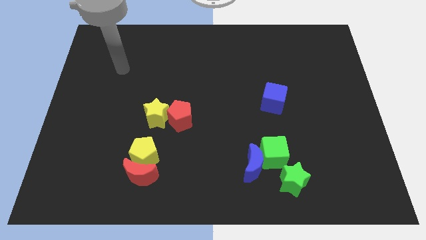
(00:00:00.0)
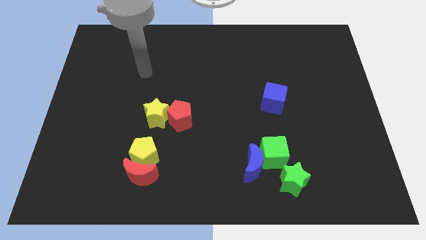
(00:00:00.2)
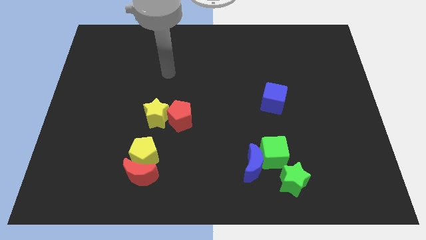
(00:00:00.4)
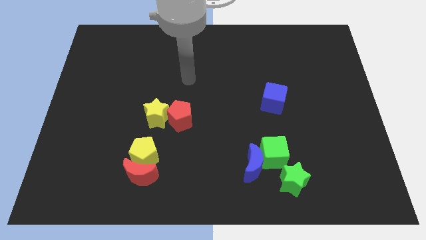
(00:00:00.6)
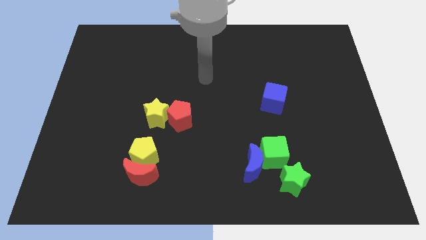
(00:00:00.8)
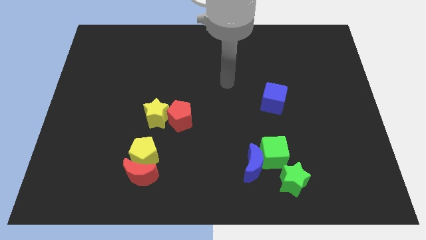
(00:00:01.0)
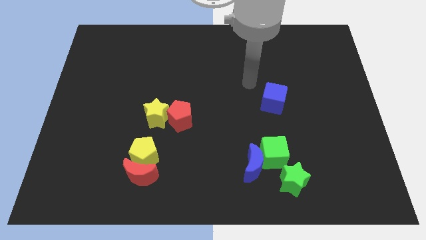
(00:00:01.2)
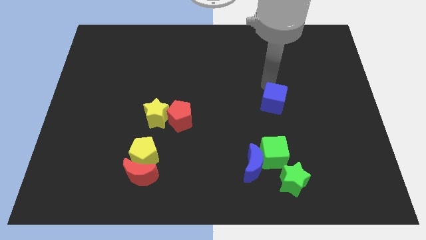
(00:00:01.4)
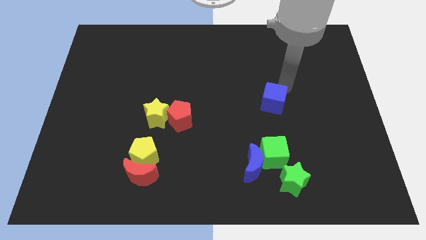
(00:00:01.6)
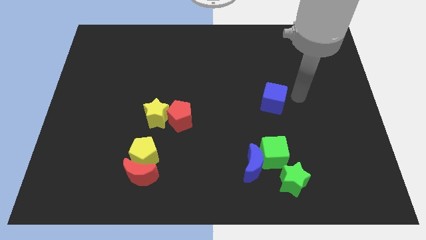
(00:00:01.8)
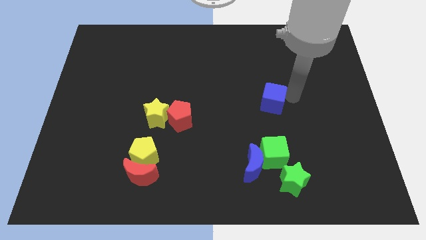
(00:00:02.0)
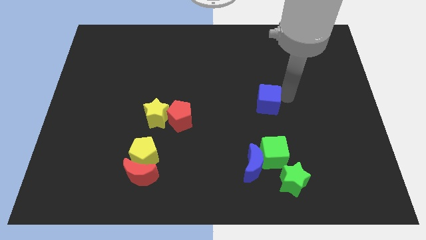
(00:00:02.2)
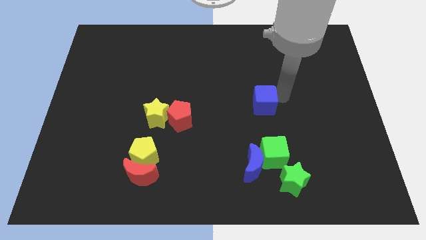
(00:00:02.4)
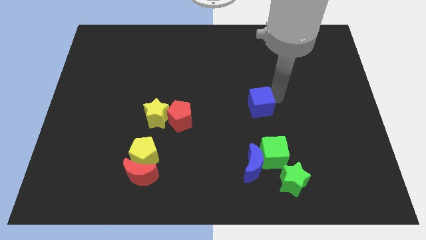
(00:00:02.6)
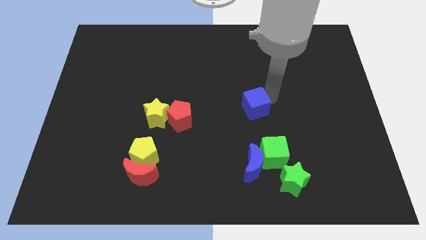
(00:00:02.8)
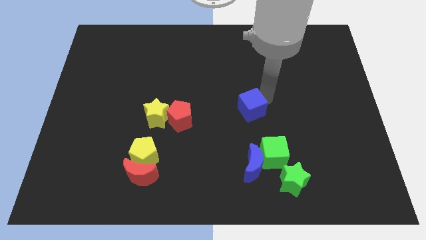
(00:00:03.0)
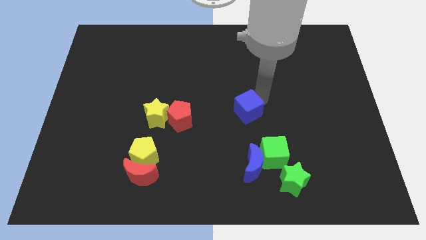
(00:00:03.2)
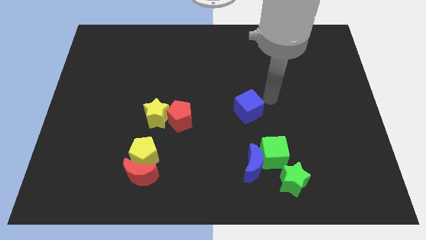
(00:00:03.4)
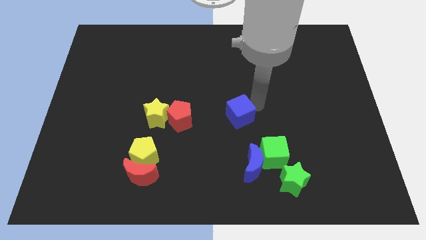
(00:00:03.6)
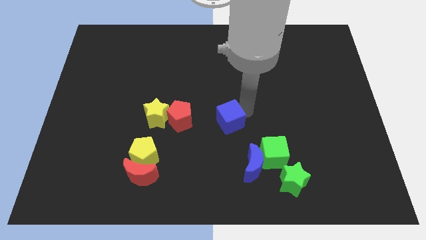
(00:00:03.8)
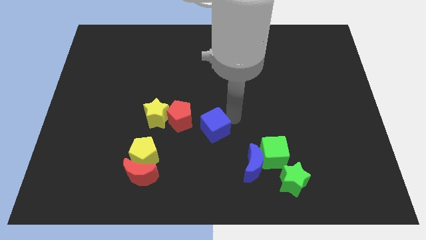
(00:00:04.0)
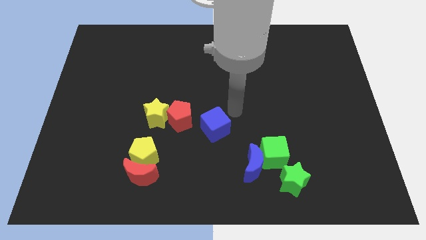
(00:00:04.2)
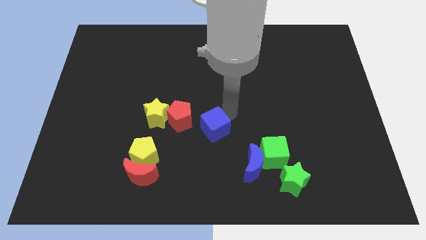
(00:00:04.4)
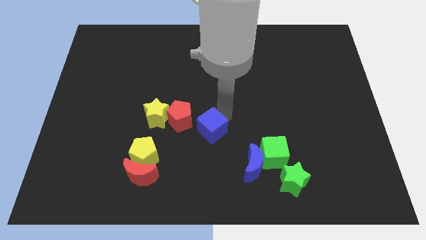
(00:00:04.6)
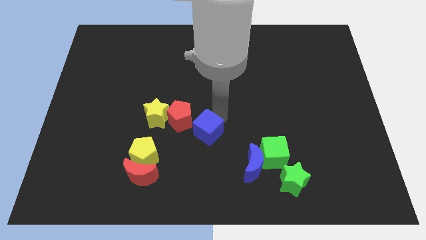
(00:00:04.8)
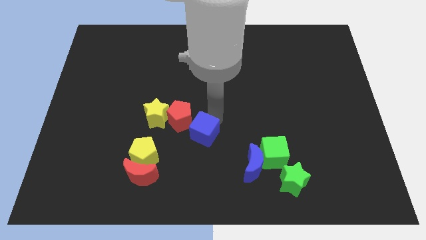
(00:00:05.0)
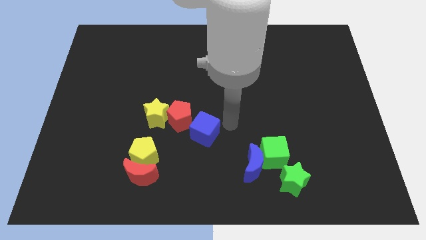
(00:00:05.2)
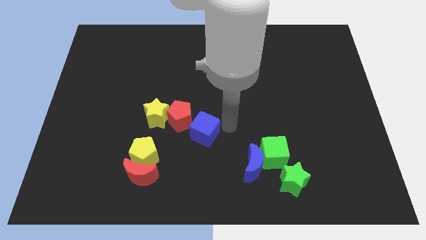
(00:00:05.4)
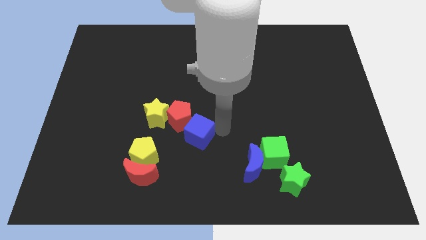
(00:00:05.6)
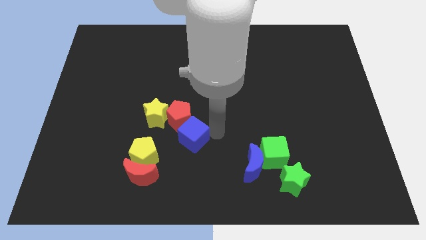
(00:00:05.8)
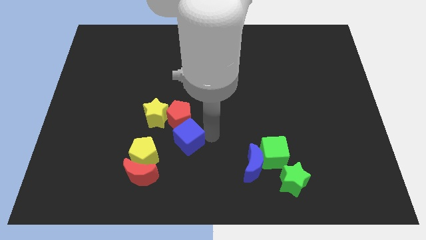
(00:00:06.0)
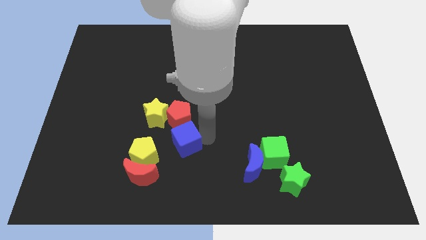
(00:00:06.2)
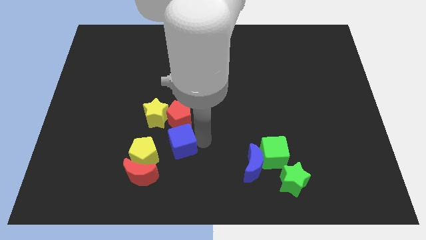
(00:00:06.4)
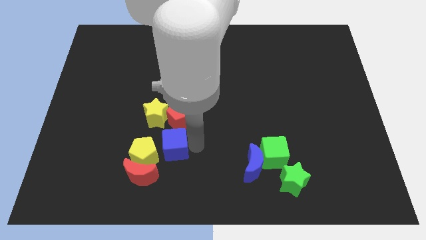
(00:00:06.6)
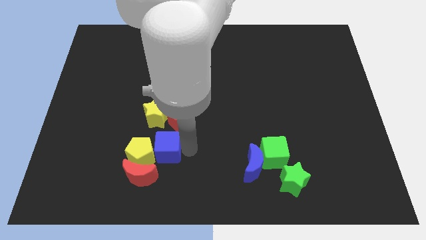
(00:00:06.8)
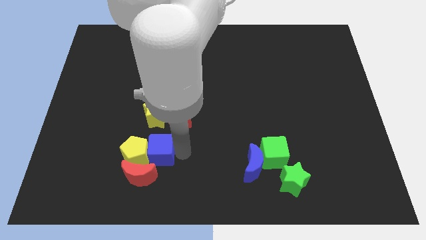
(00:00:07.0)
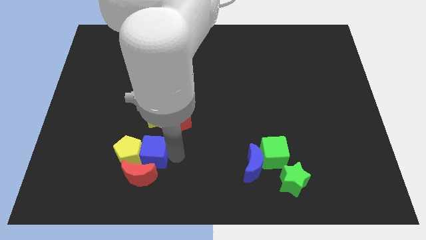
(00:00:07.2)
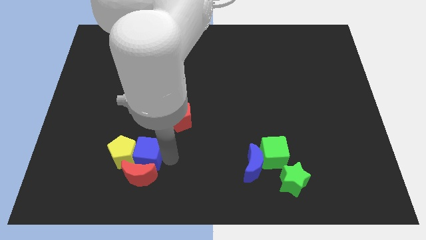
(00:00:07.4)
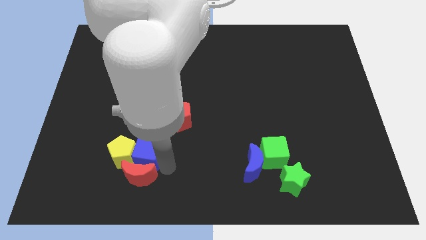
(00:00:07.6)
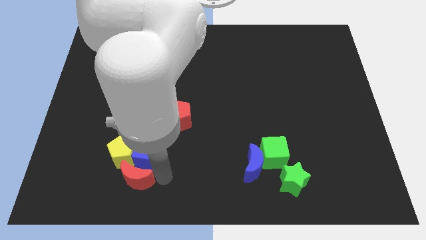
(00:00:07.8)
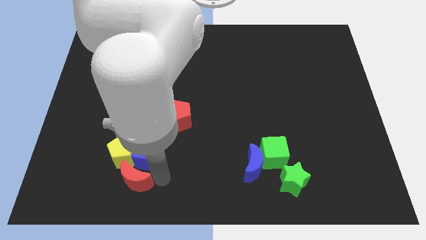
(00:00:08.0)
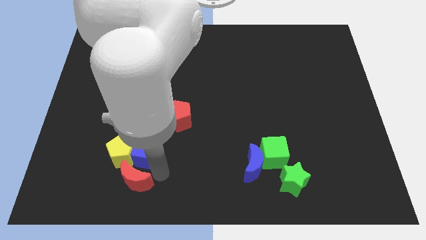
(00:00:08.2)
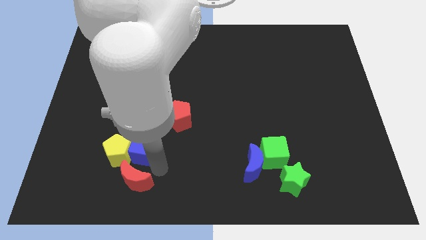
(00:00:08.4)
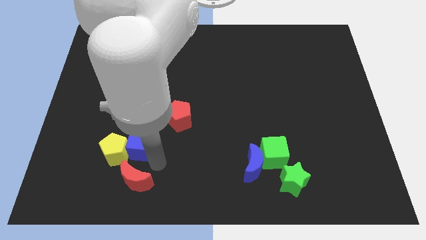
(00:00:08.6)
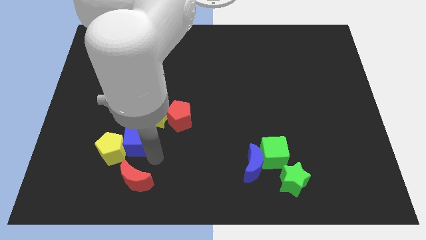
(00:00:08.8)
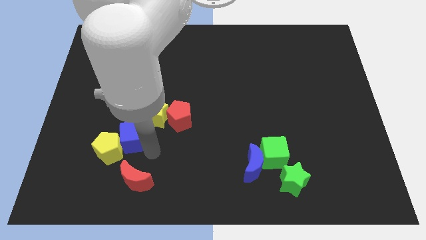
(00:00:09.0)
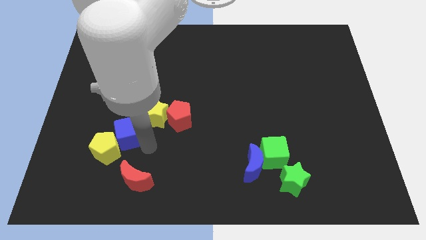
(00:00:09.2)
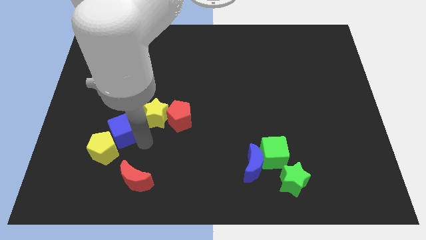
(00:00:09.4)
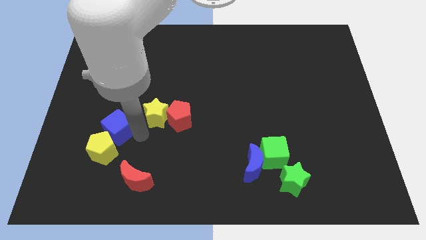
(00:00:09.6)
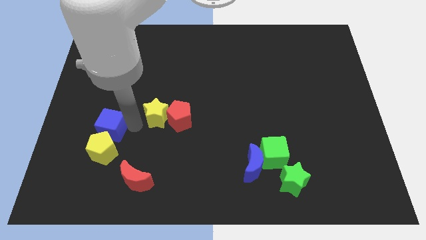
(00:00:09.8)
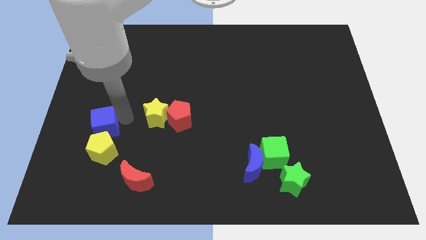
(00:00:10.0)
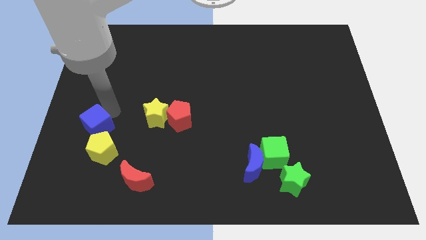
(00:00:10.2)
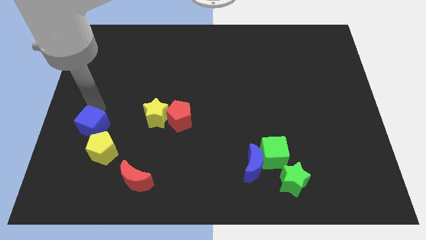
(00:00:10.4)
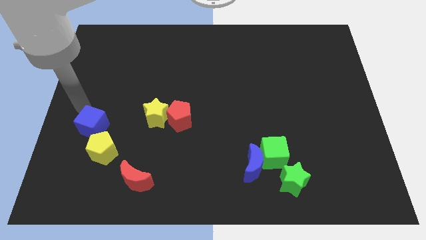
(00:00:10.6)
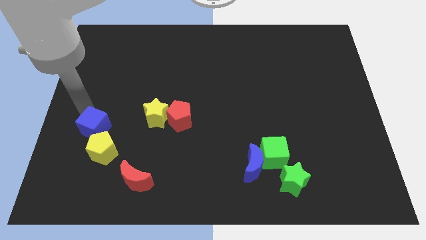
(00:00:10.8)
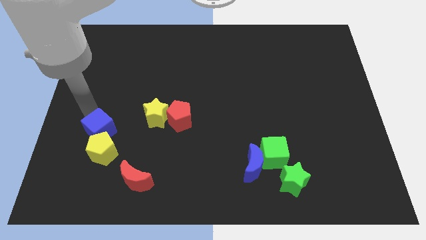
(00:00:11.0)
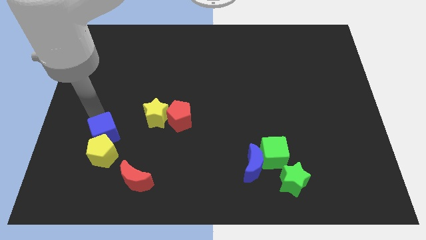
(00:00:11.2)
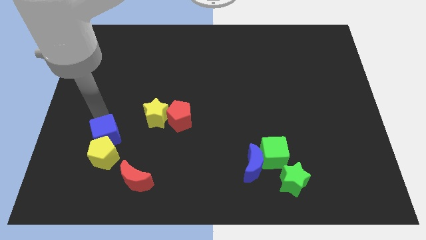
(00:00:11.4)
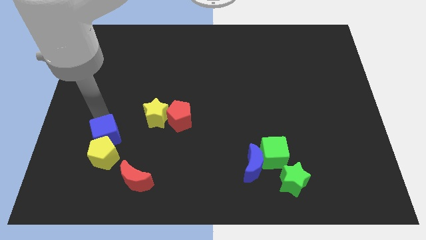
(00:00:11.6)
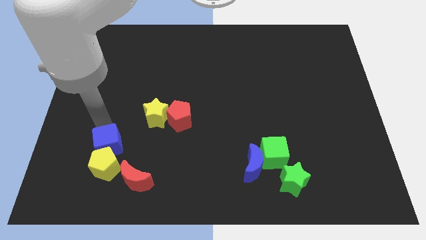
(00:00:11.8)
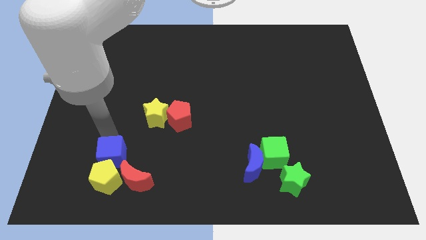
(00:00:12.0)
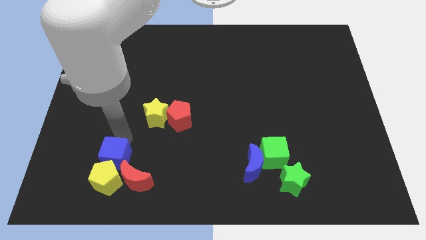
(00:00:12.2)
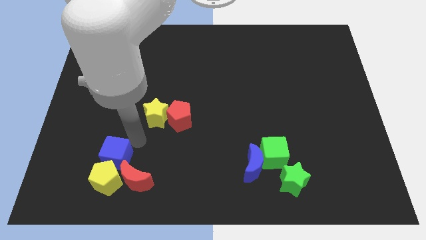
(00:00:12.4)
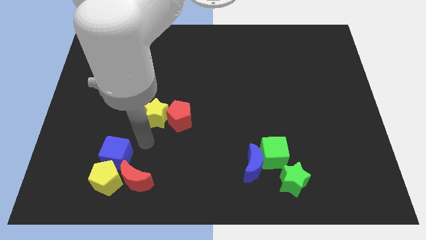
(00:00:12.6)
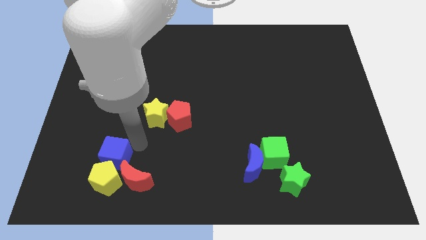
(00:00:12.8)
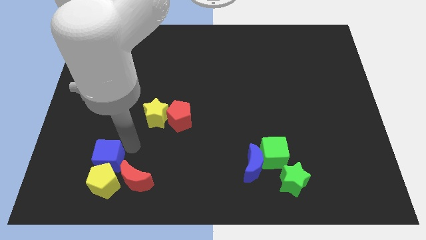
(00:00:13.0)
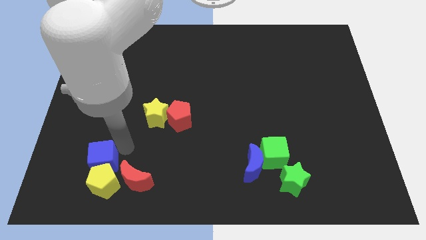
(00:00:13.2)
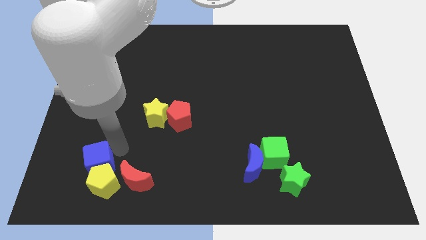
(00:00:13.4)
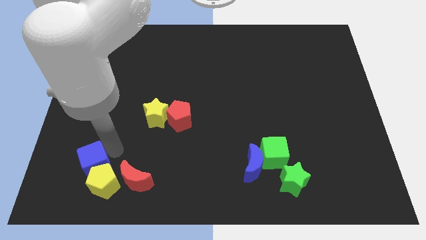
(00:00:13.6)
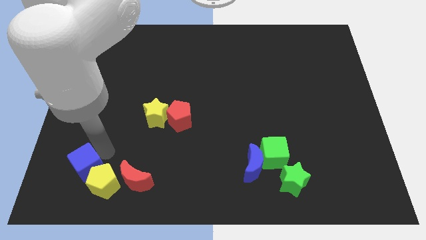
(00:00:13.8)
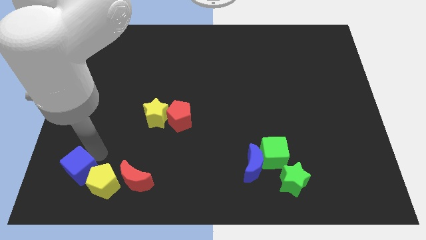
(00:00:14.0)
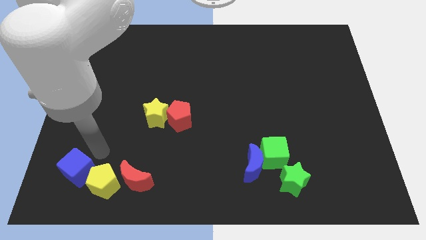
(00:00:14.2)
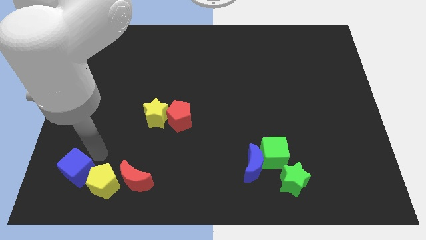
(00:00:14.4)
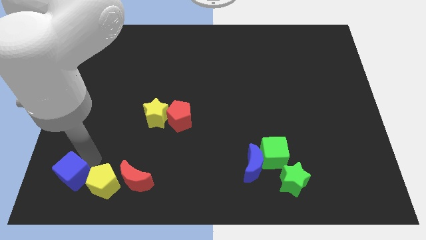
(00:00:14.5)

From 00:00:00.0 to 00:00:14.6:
put the blue cube to the lower left corner
